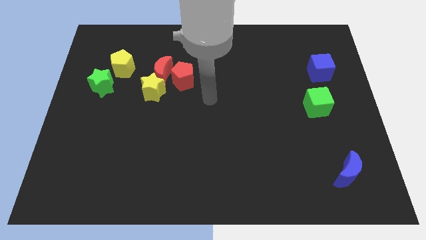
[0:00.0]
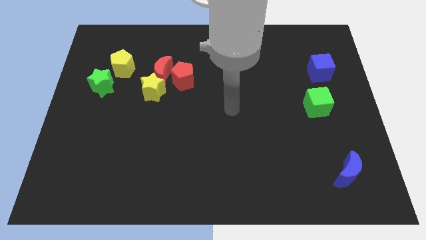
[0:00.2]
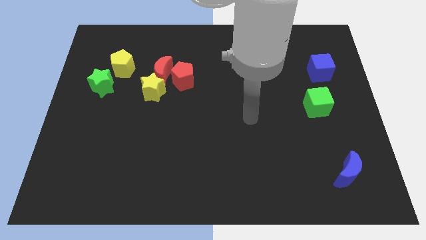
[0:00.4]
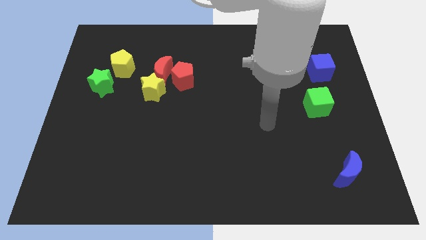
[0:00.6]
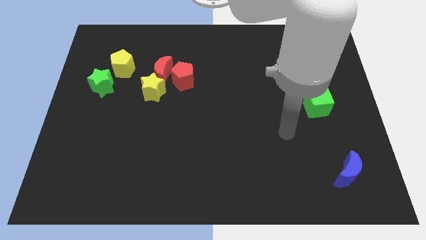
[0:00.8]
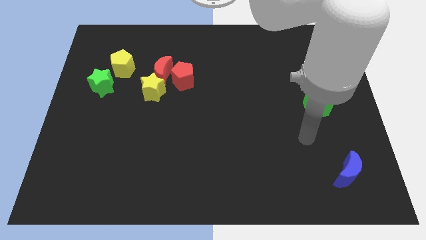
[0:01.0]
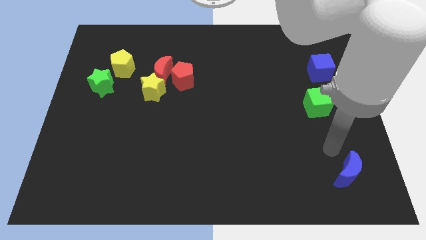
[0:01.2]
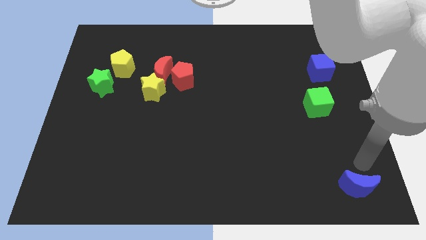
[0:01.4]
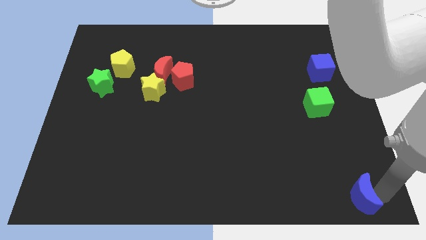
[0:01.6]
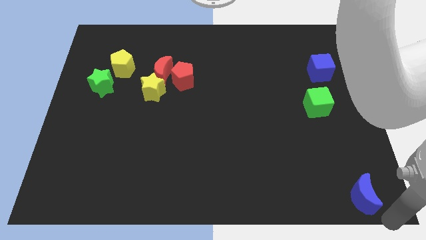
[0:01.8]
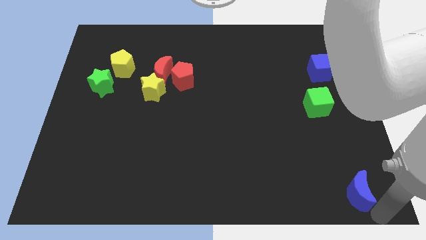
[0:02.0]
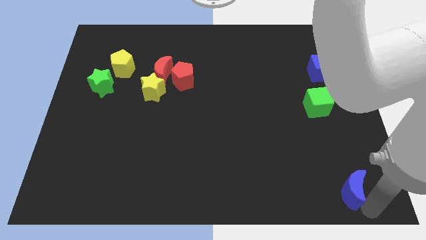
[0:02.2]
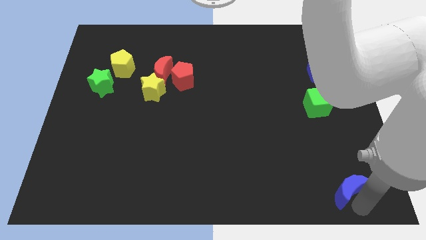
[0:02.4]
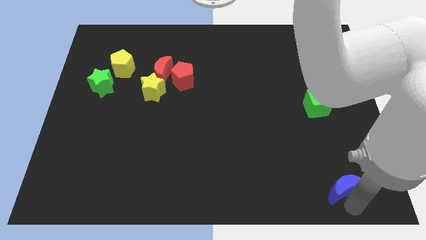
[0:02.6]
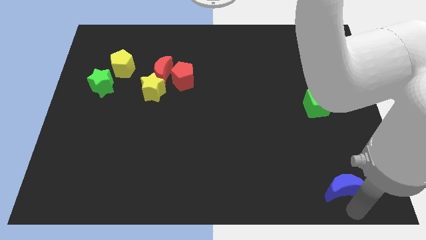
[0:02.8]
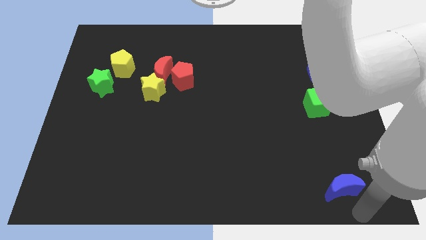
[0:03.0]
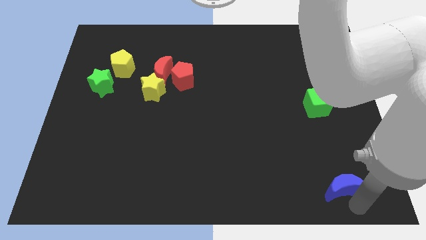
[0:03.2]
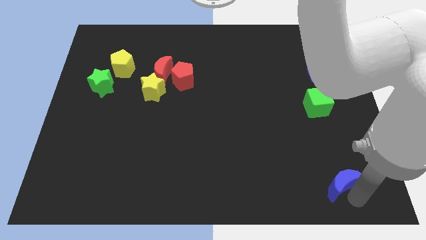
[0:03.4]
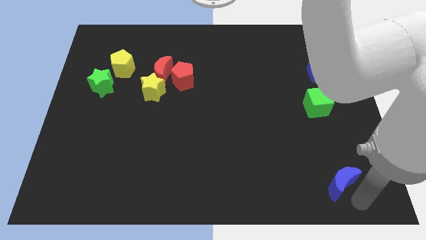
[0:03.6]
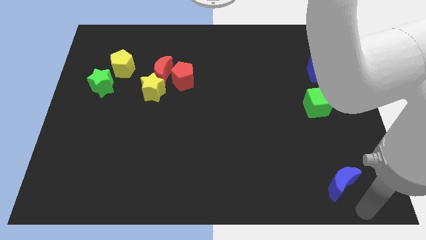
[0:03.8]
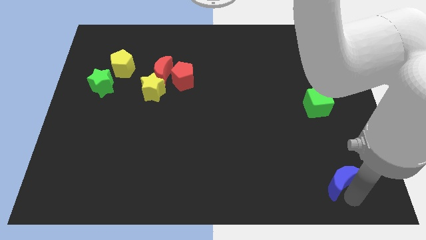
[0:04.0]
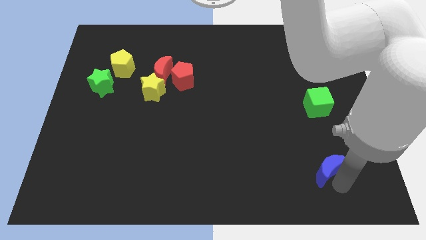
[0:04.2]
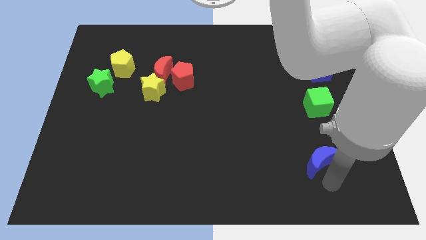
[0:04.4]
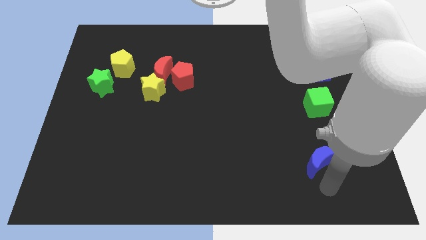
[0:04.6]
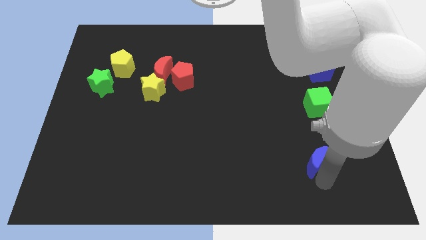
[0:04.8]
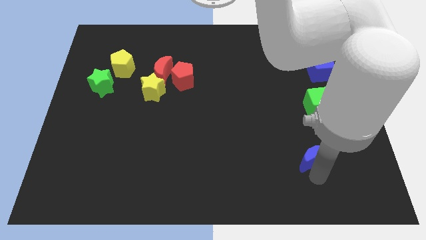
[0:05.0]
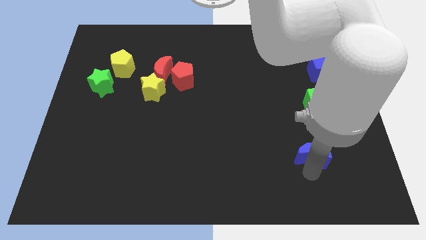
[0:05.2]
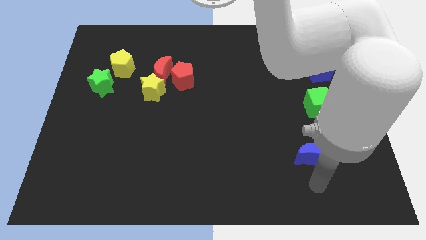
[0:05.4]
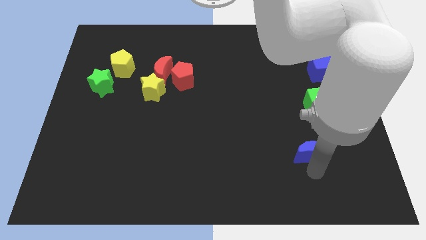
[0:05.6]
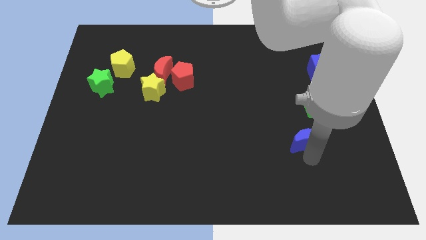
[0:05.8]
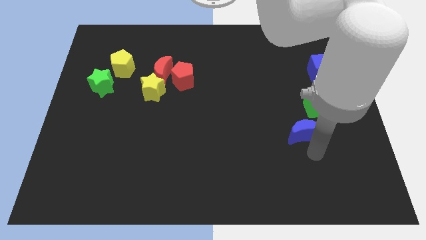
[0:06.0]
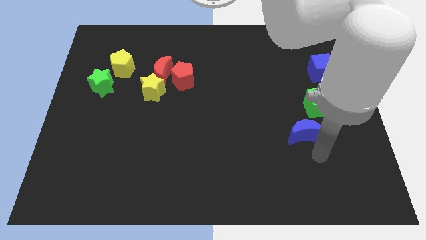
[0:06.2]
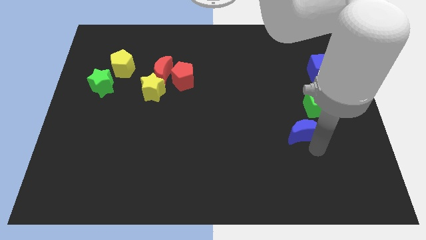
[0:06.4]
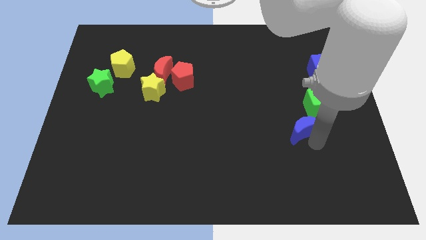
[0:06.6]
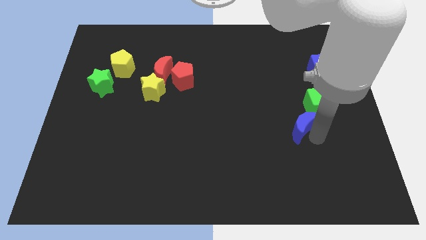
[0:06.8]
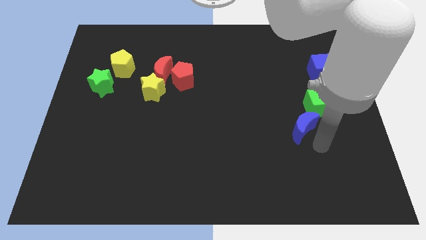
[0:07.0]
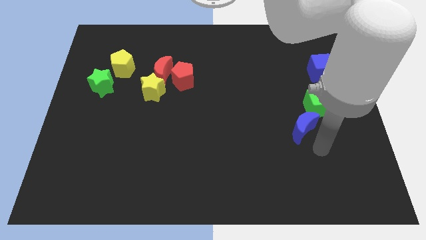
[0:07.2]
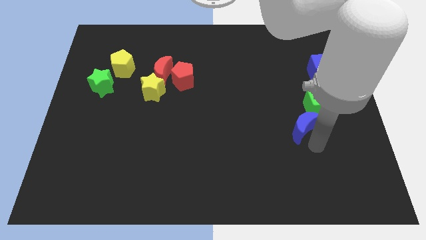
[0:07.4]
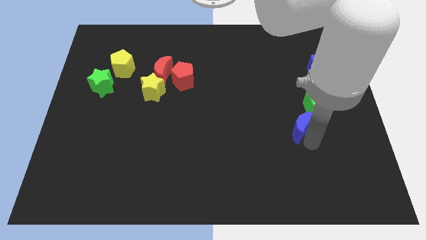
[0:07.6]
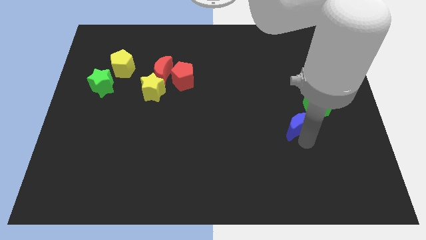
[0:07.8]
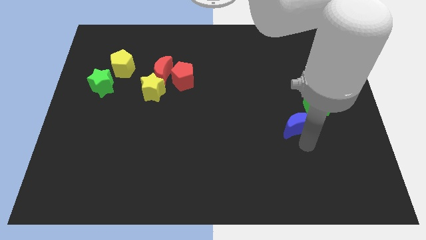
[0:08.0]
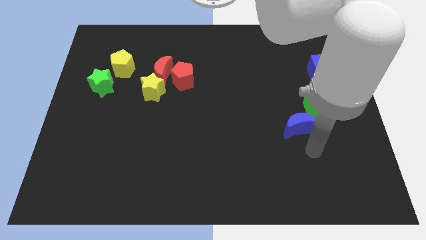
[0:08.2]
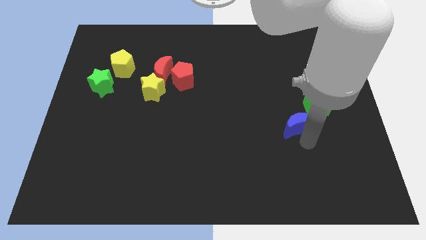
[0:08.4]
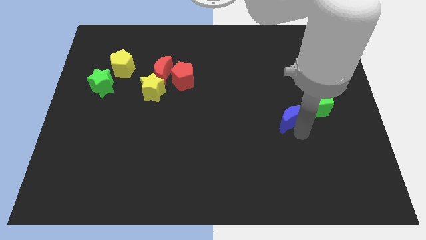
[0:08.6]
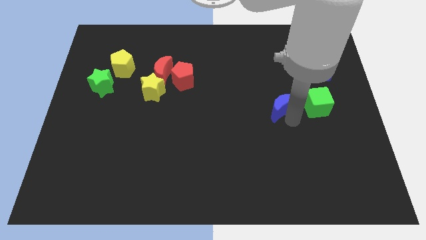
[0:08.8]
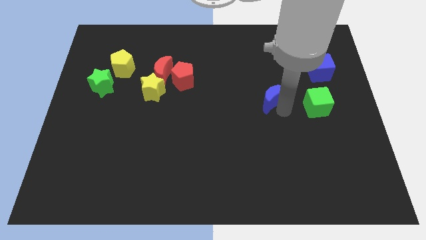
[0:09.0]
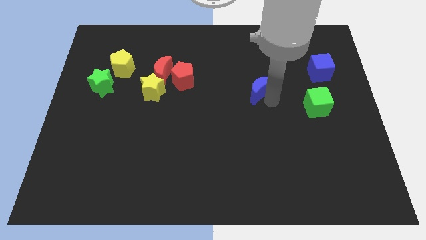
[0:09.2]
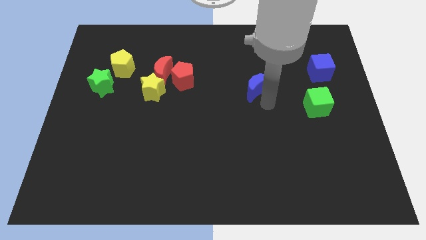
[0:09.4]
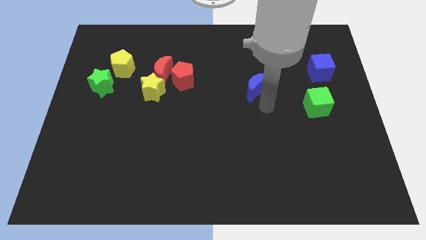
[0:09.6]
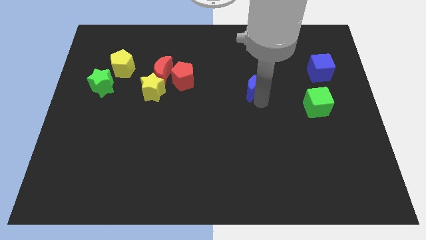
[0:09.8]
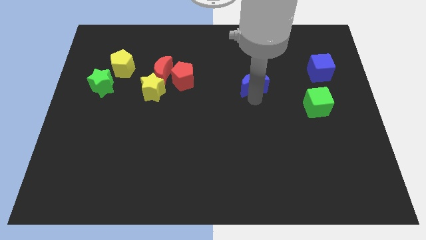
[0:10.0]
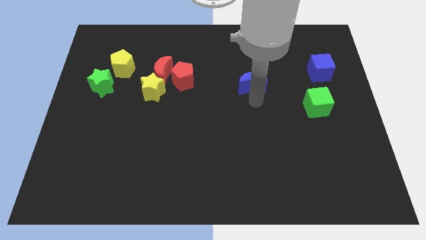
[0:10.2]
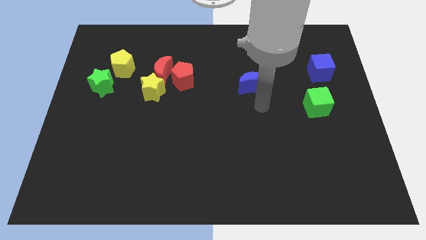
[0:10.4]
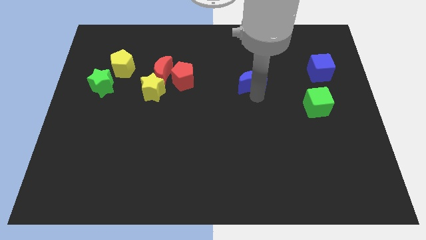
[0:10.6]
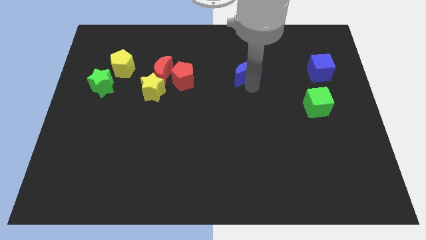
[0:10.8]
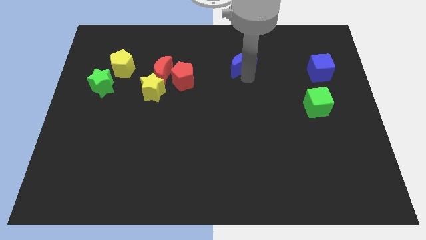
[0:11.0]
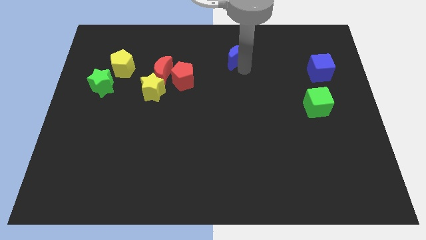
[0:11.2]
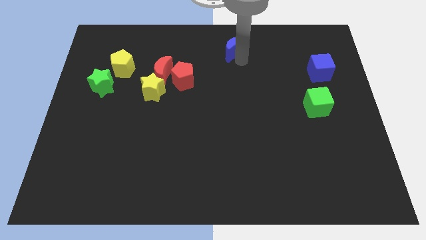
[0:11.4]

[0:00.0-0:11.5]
slide the blue moon to the top

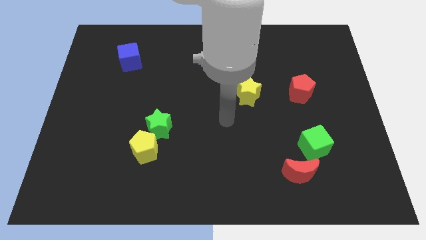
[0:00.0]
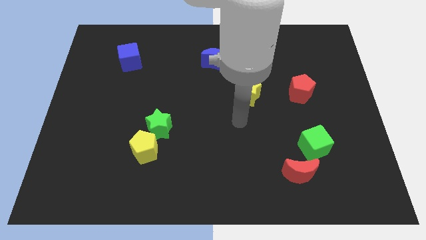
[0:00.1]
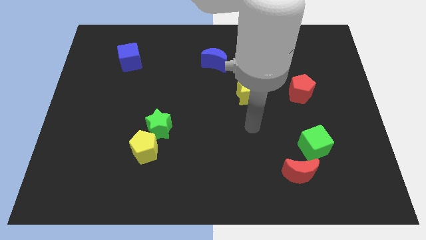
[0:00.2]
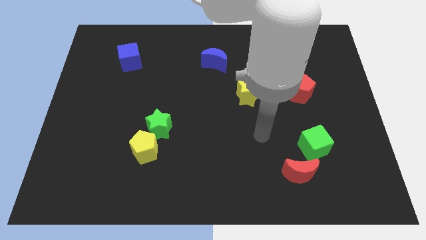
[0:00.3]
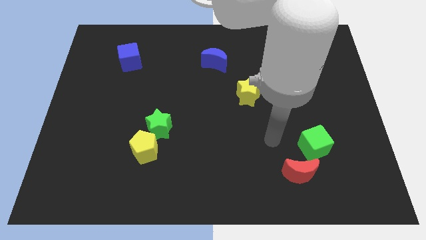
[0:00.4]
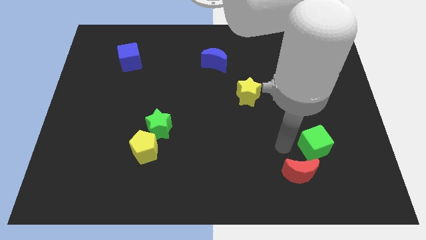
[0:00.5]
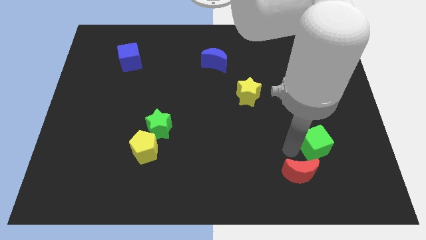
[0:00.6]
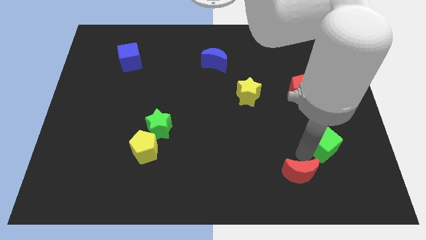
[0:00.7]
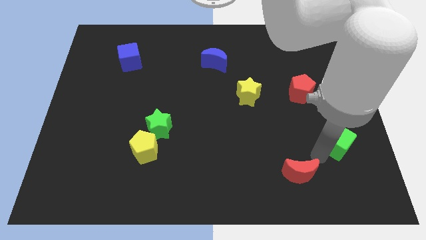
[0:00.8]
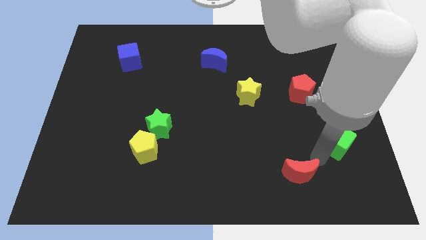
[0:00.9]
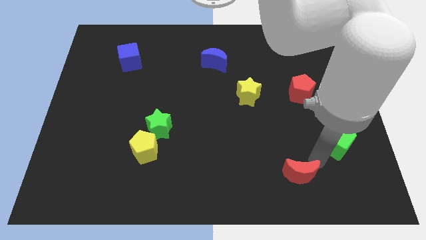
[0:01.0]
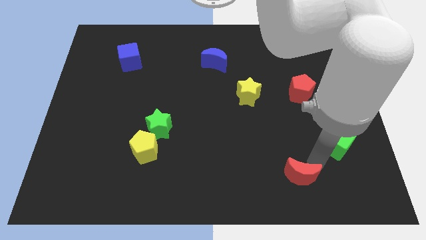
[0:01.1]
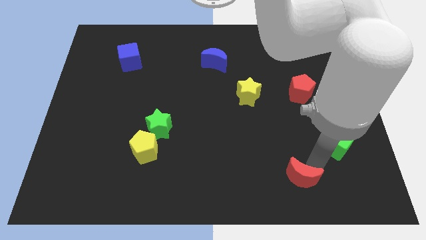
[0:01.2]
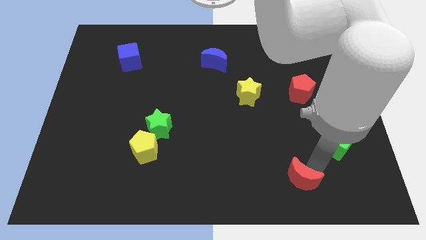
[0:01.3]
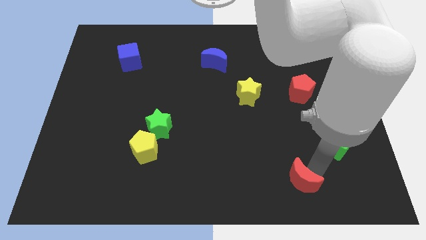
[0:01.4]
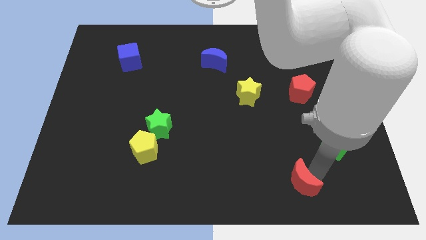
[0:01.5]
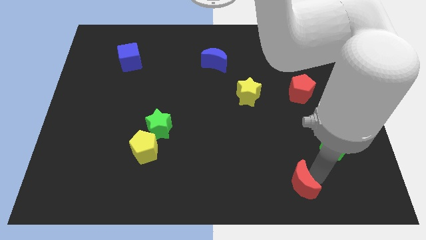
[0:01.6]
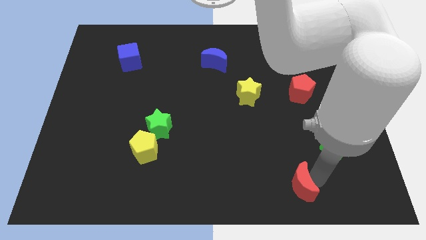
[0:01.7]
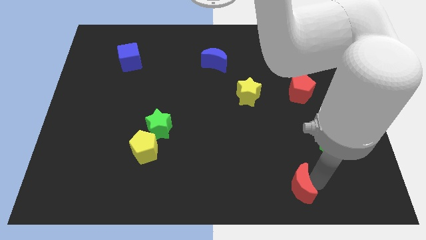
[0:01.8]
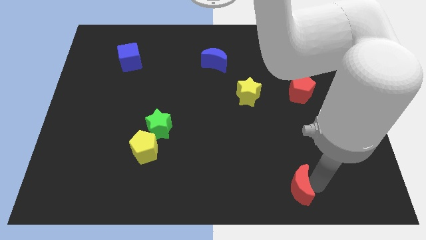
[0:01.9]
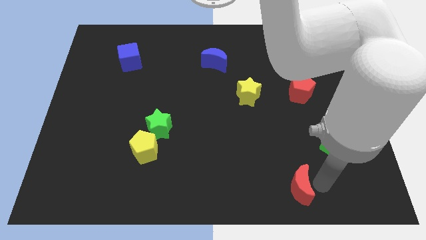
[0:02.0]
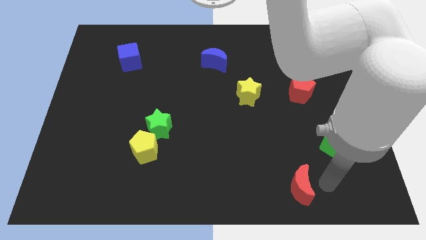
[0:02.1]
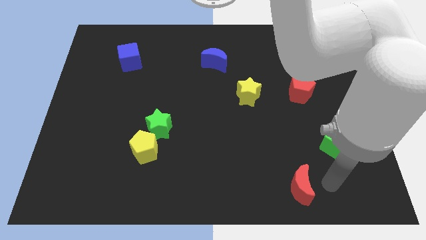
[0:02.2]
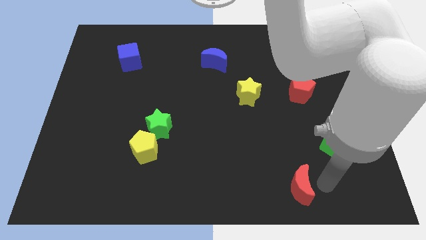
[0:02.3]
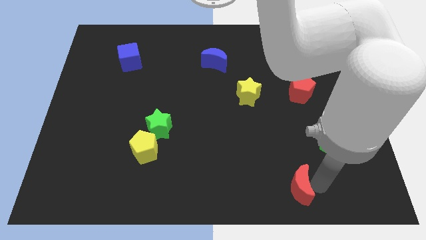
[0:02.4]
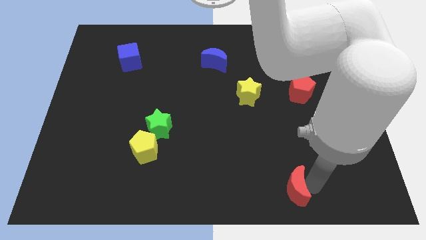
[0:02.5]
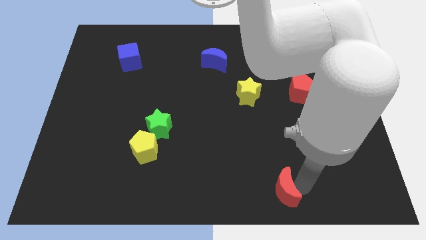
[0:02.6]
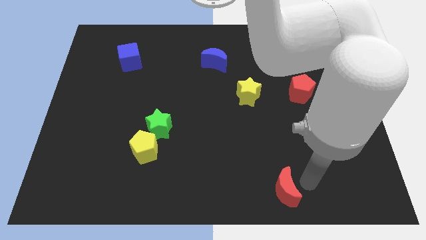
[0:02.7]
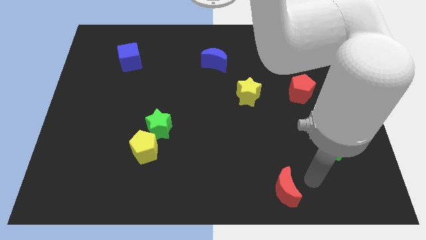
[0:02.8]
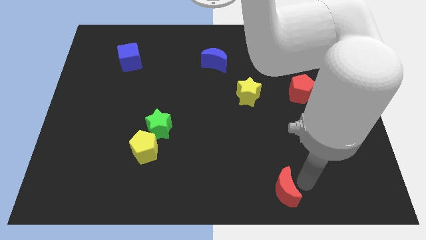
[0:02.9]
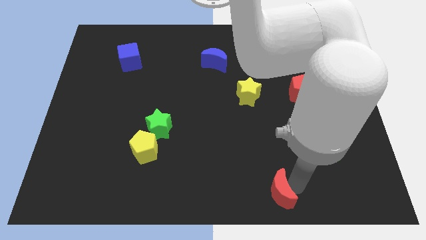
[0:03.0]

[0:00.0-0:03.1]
move the red moon to the bottom side
